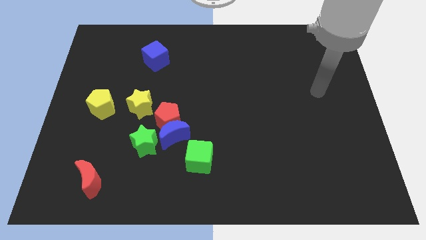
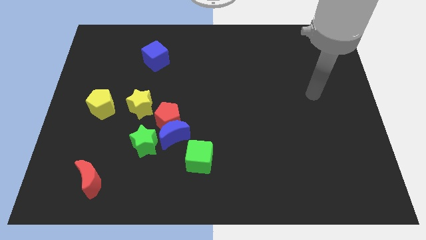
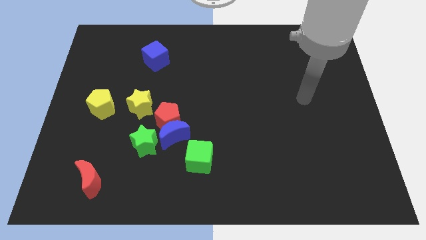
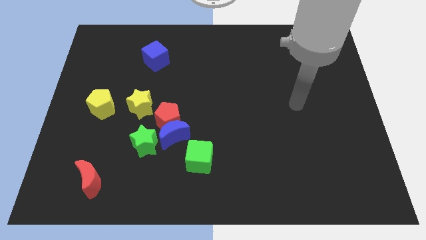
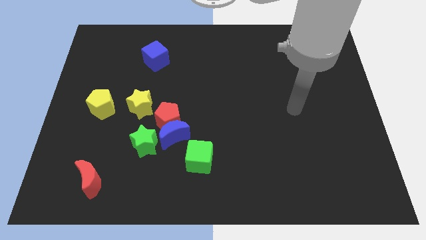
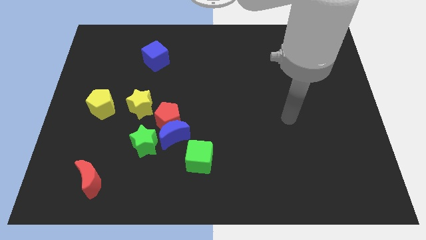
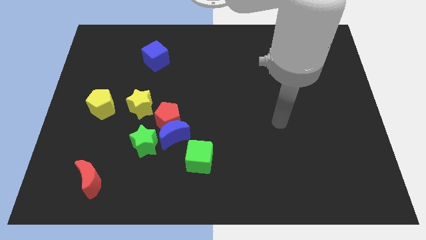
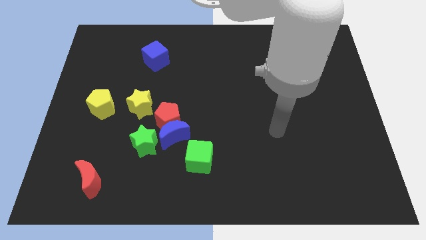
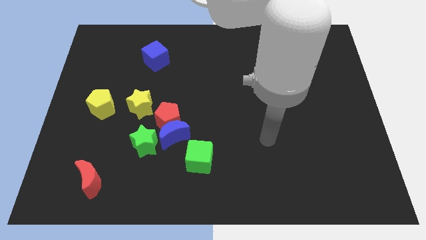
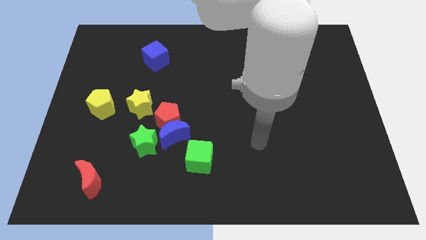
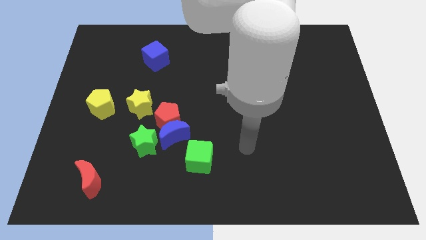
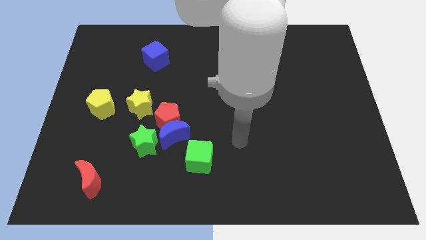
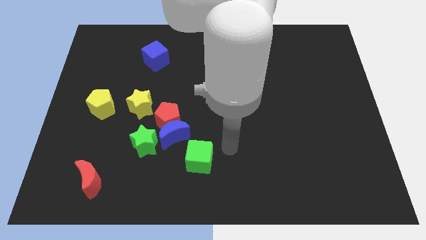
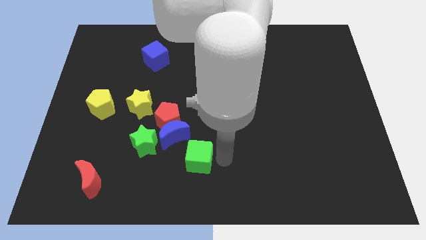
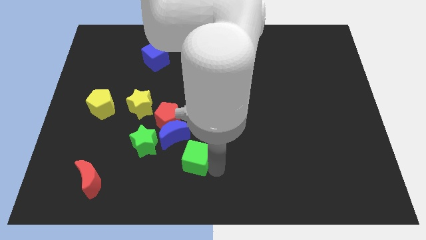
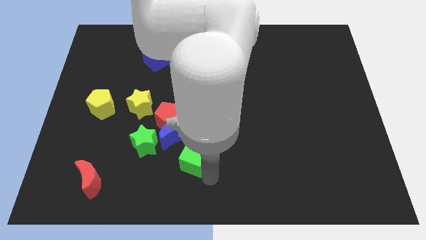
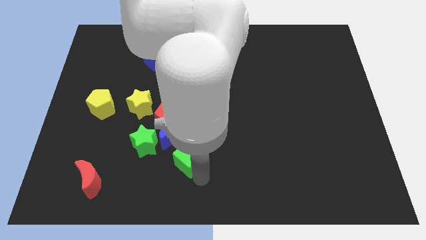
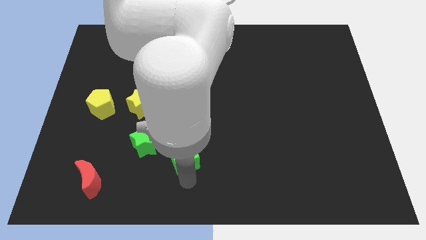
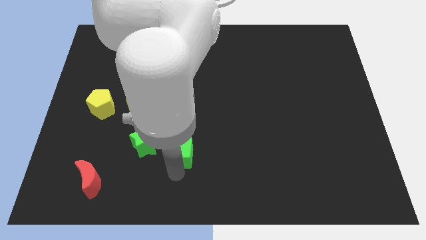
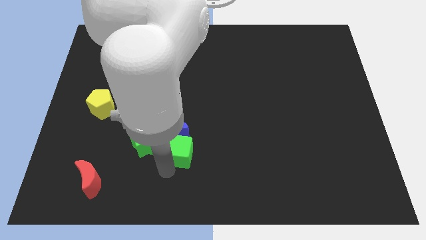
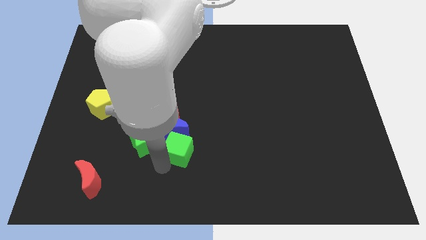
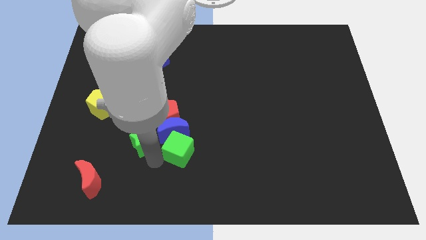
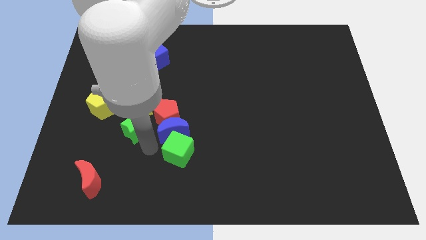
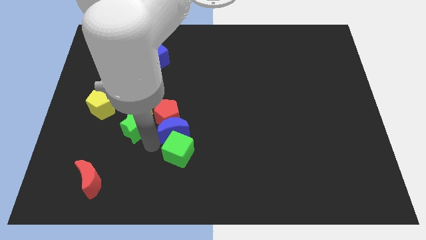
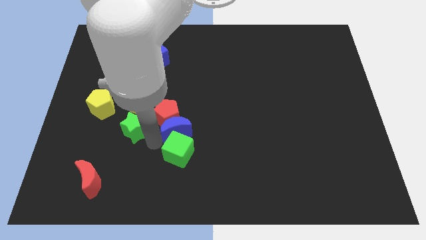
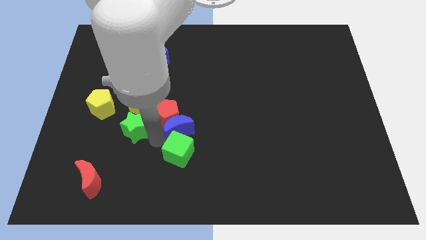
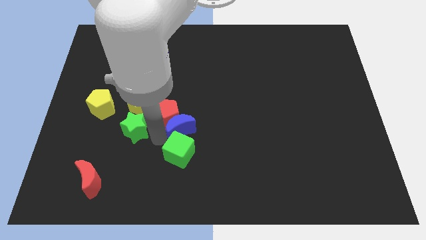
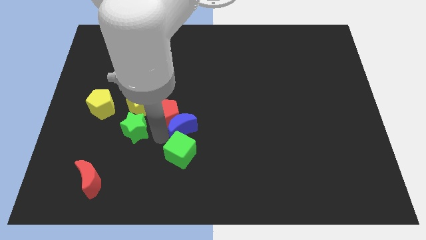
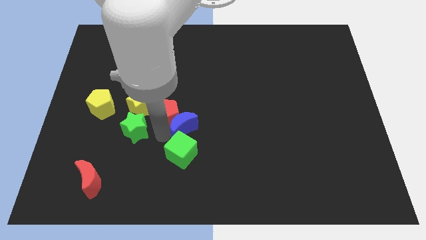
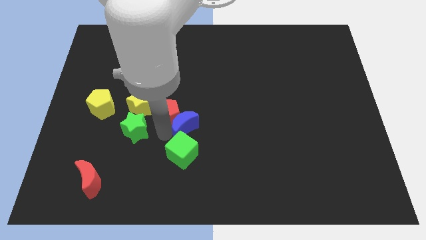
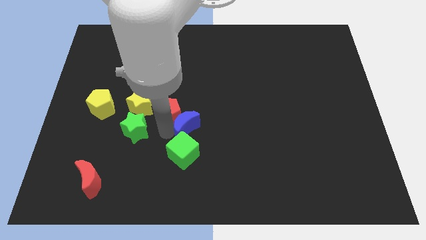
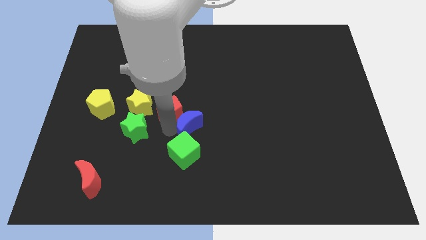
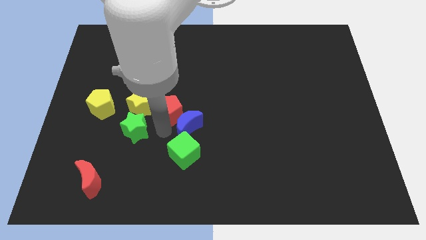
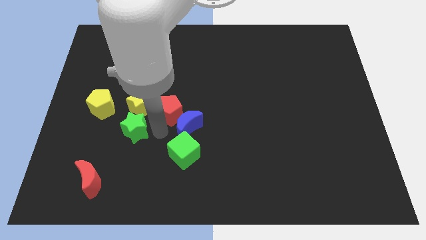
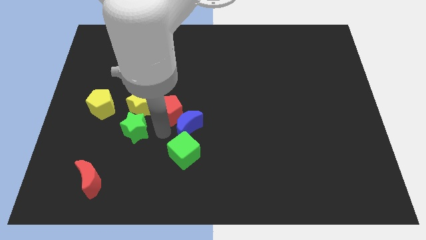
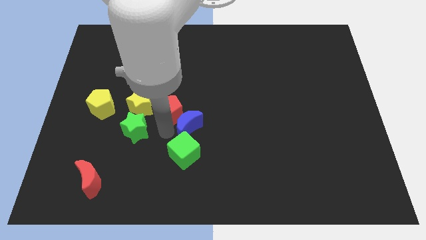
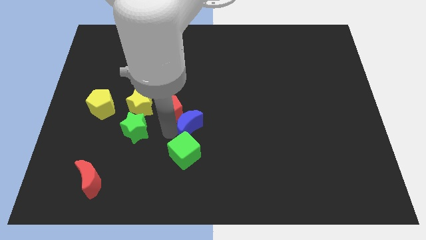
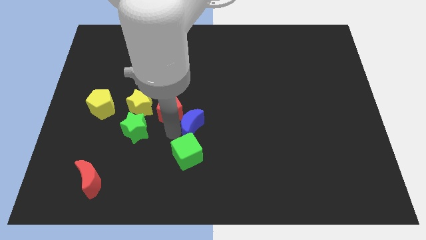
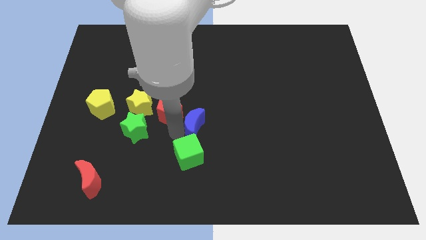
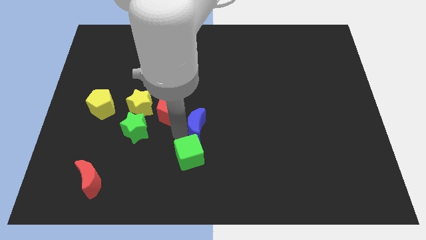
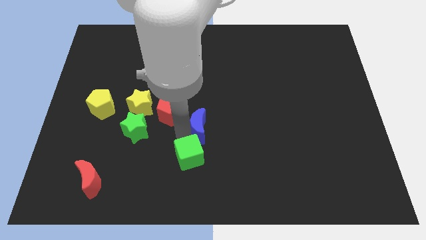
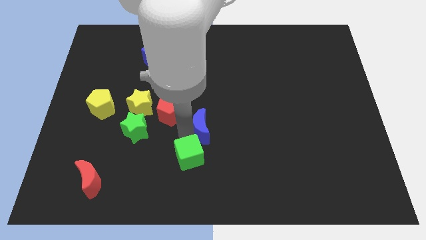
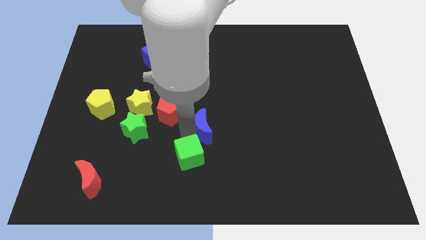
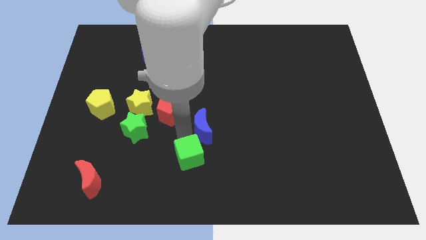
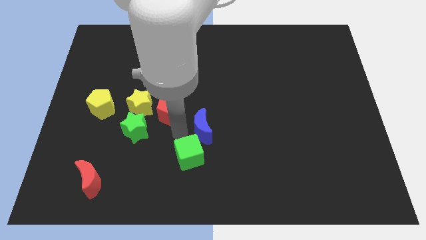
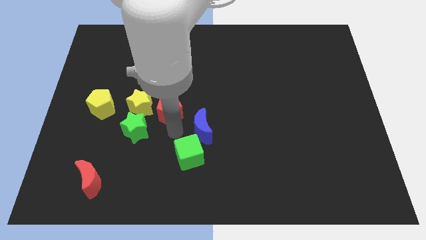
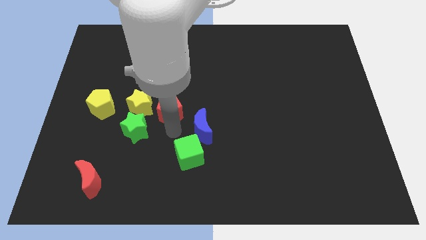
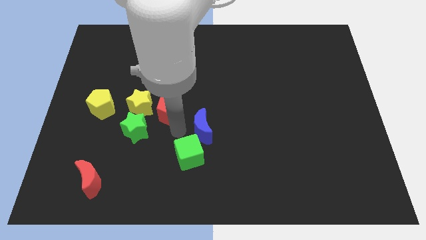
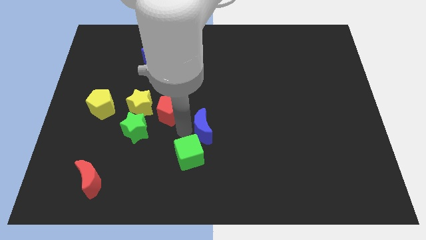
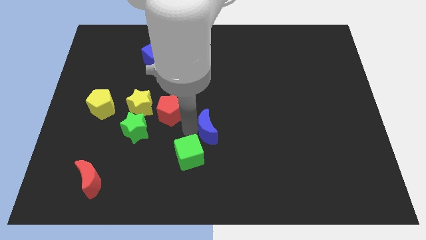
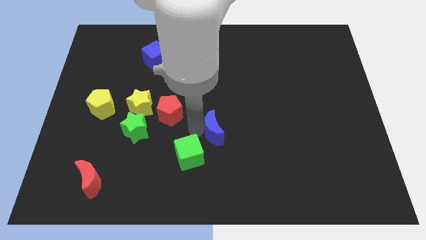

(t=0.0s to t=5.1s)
move the blue moon away from the red pentagon, green star, and green cube

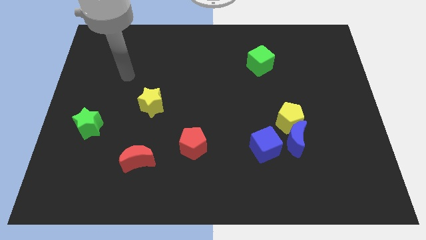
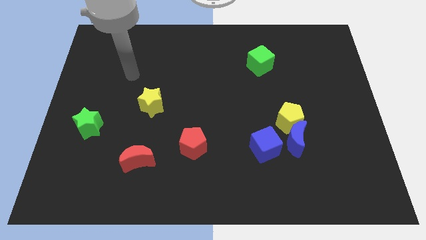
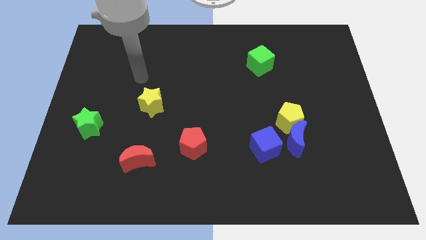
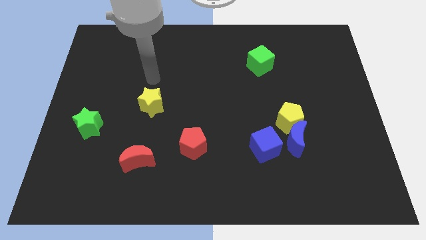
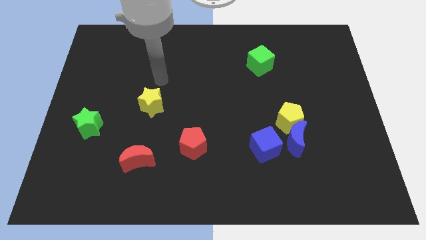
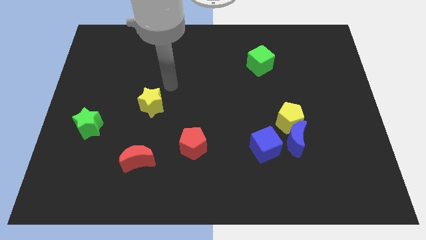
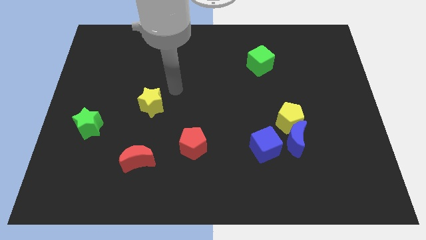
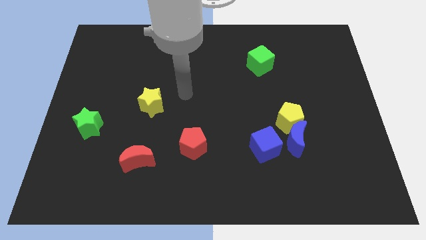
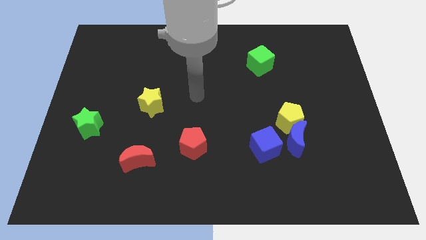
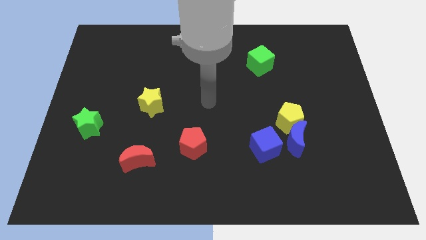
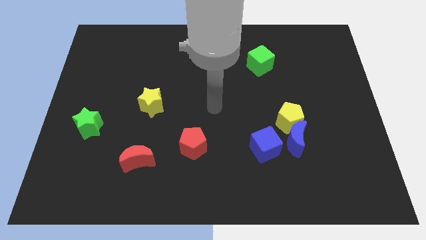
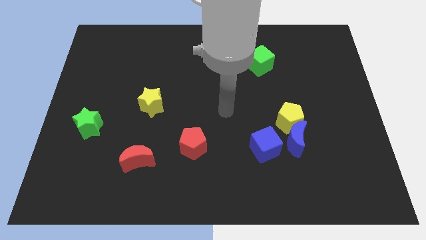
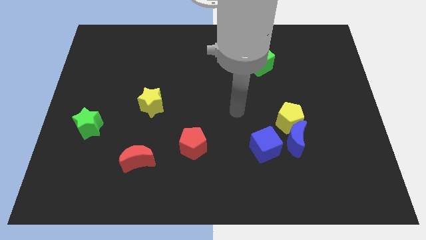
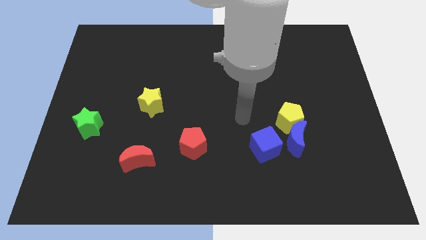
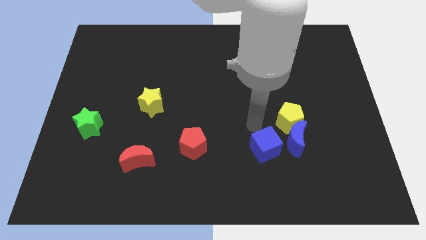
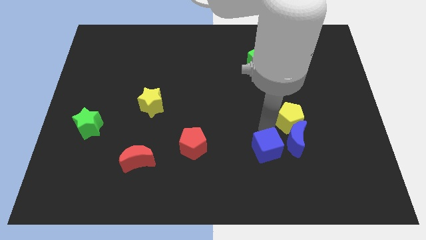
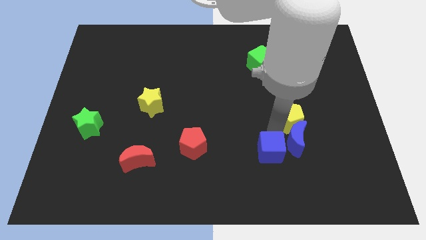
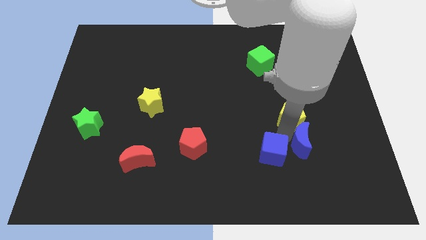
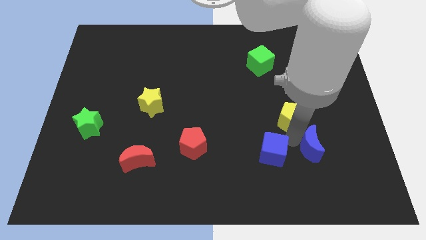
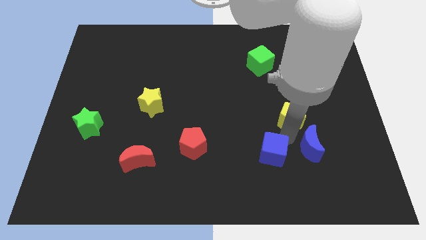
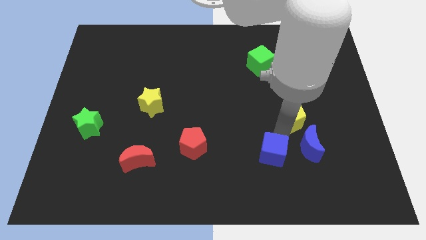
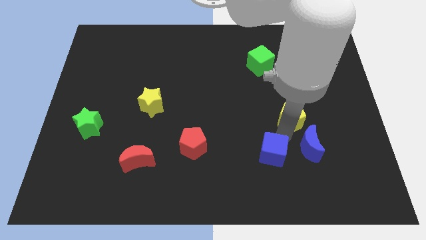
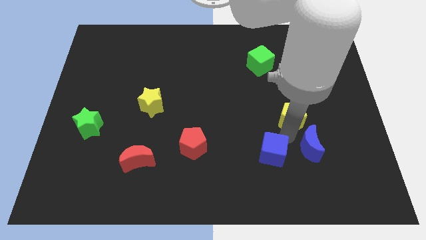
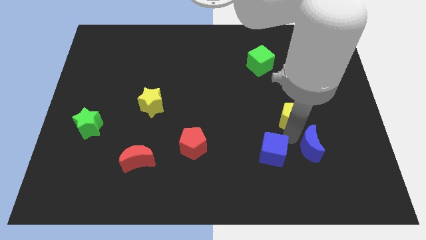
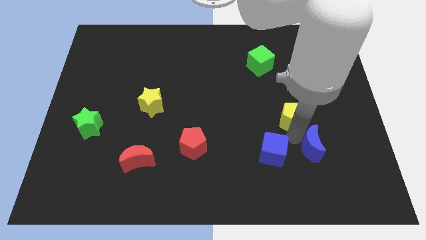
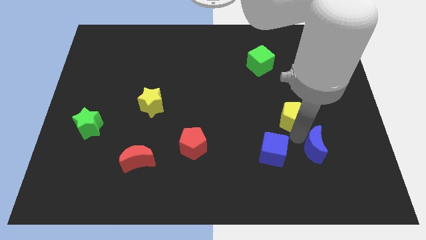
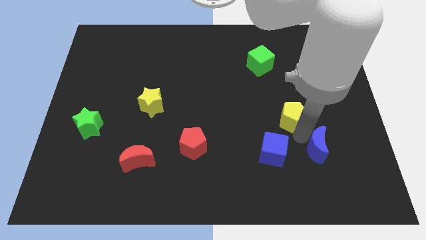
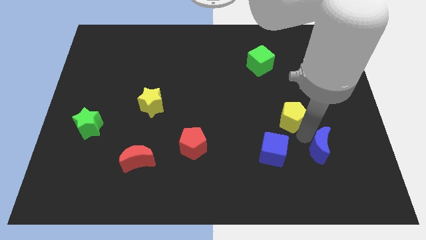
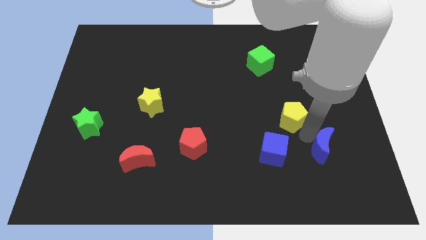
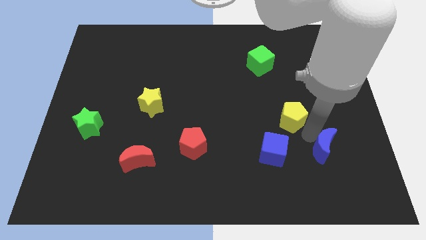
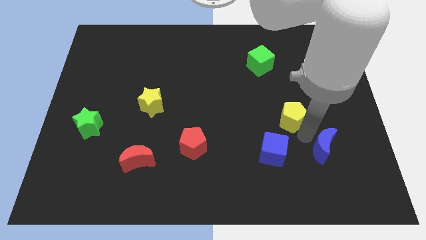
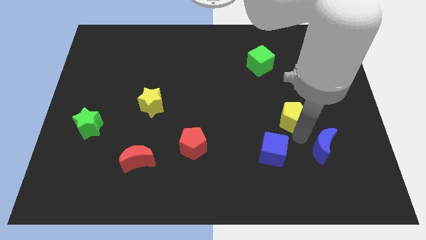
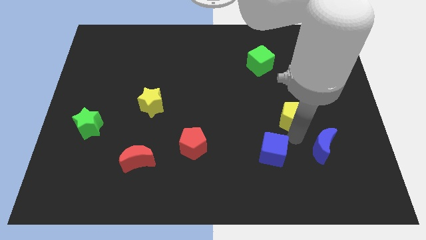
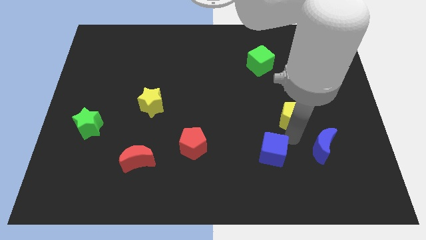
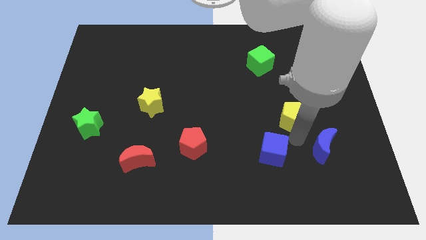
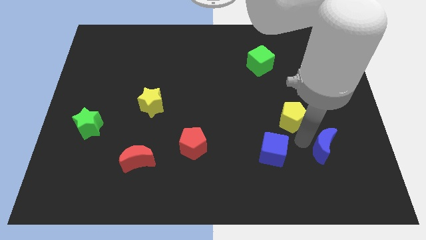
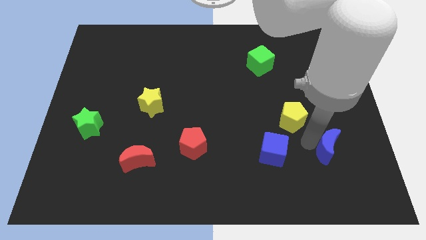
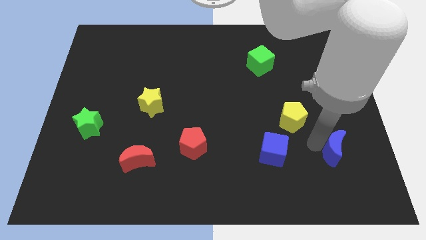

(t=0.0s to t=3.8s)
pull the blue moon apart from the yellow pentagon and blue cube

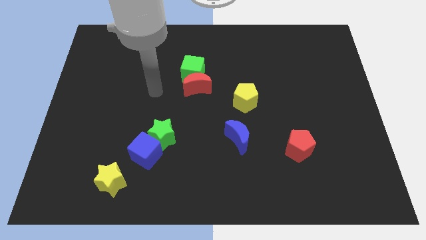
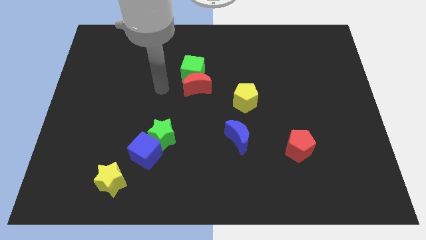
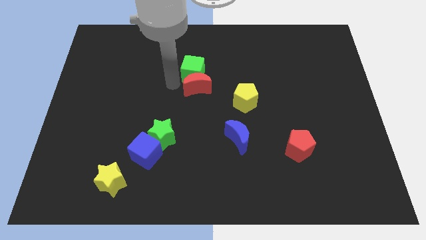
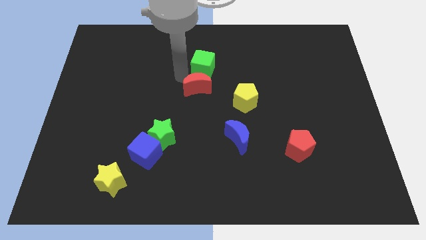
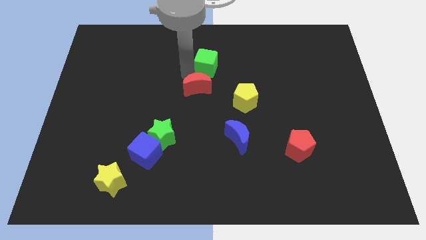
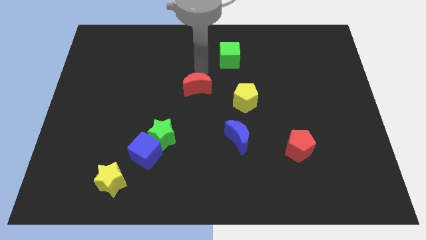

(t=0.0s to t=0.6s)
pull the red moon apart from the green cube
